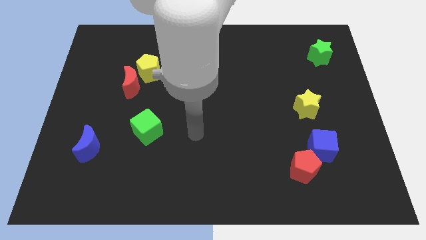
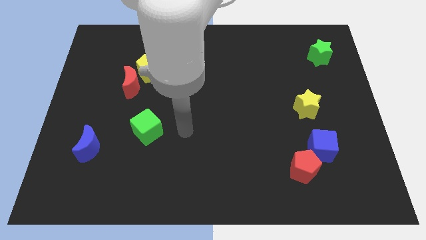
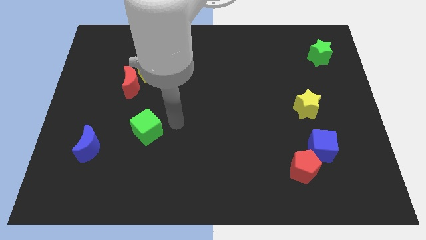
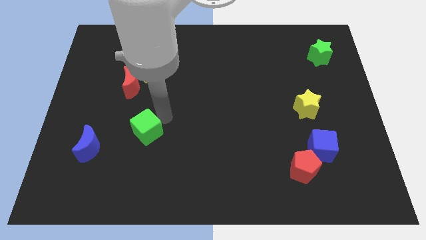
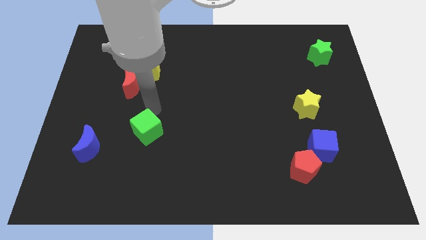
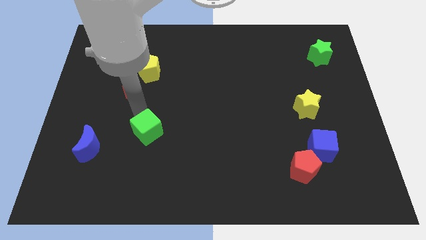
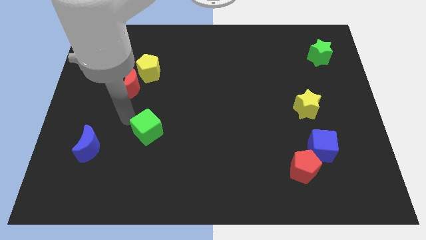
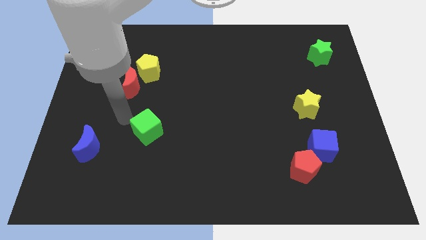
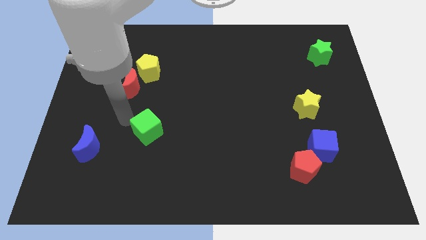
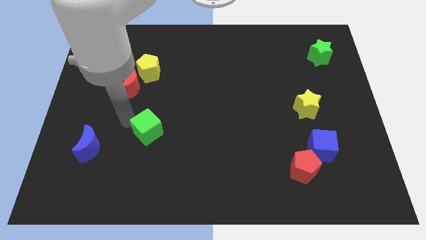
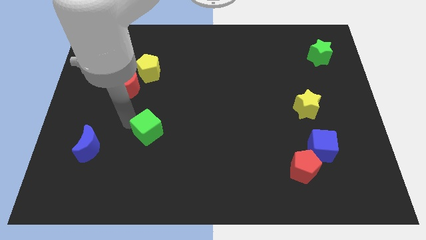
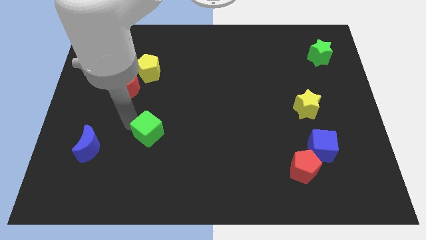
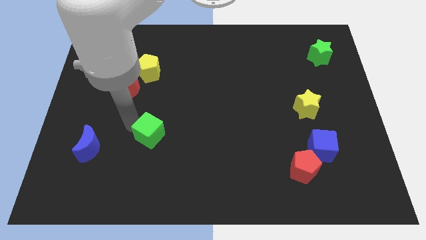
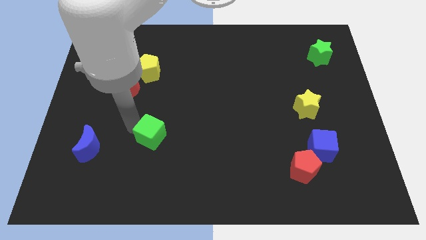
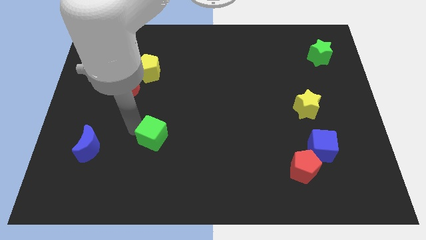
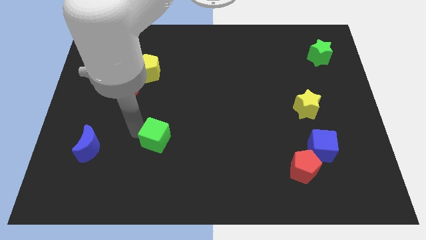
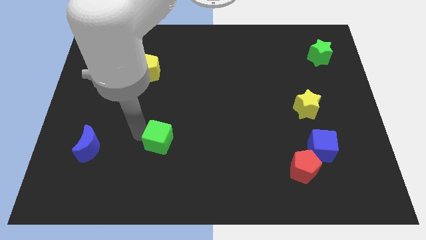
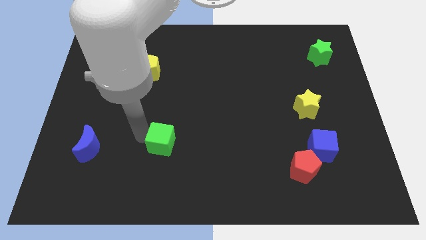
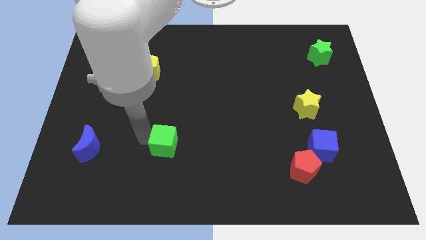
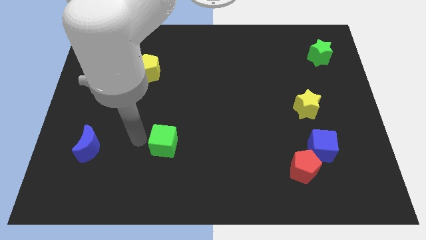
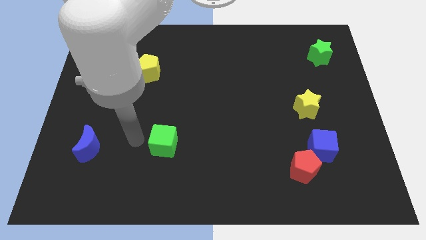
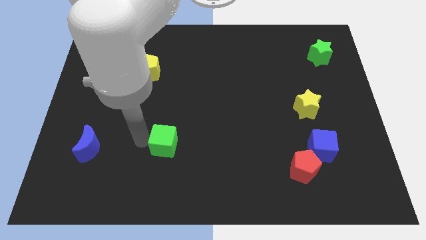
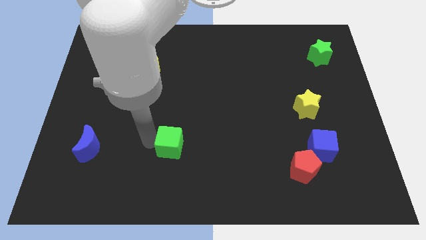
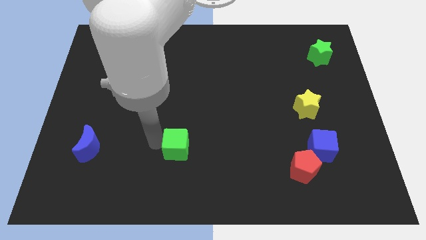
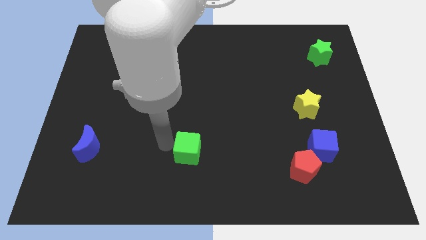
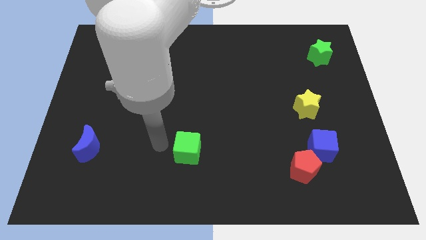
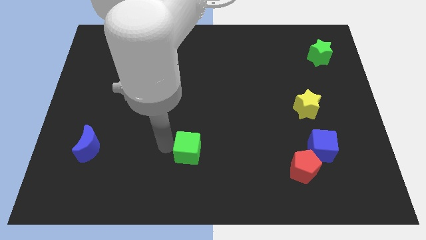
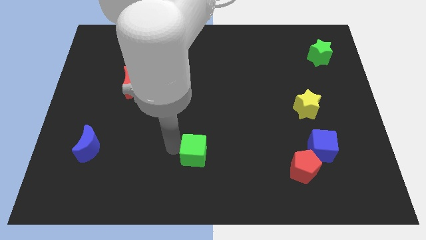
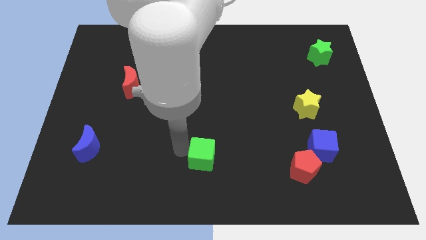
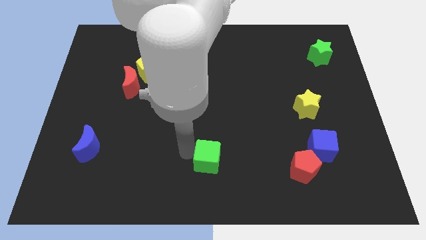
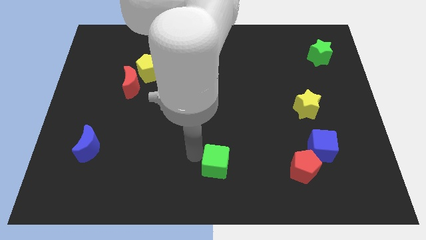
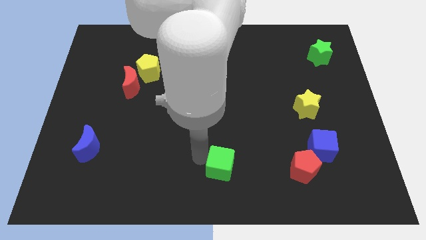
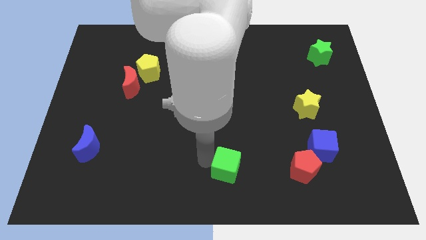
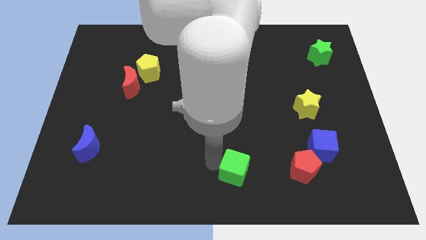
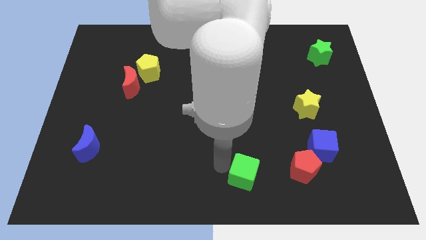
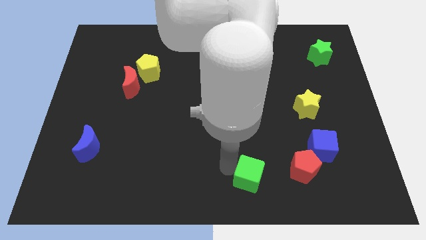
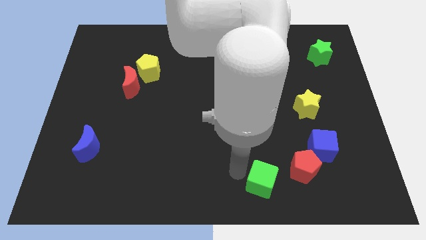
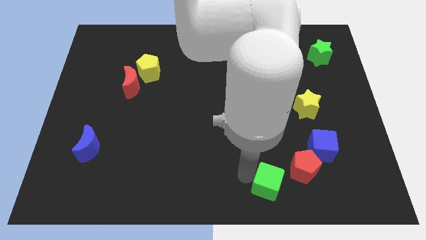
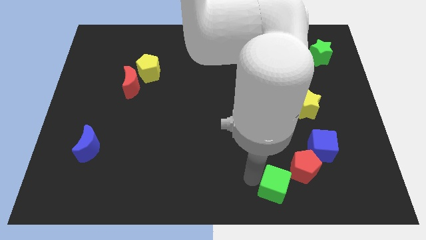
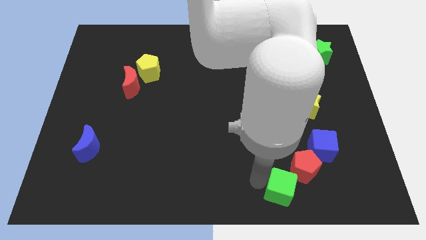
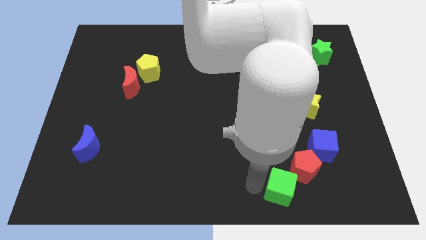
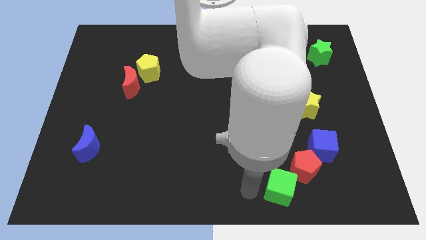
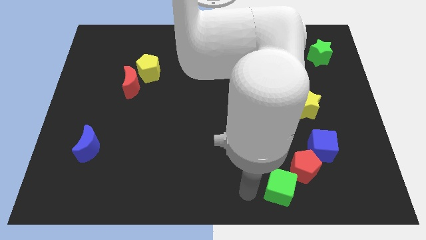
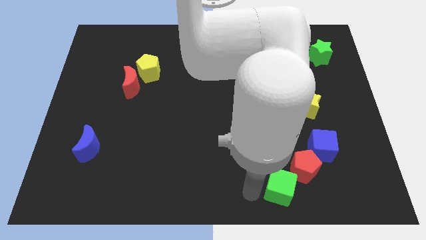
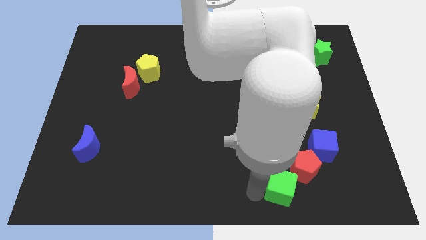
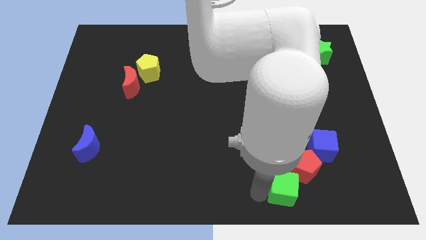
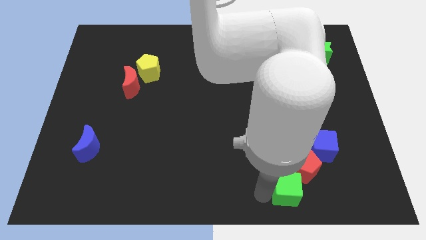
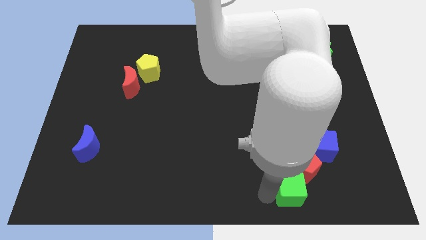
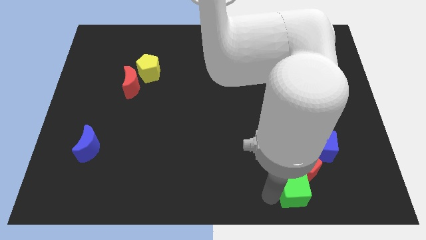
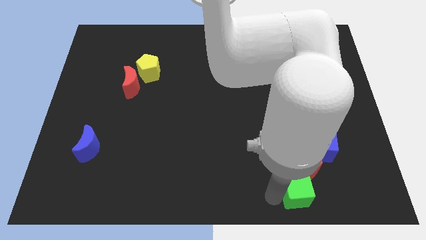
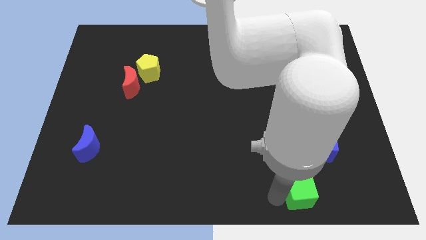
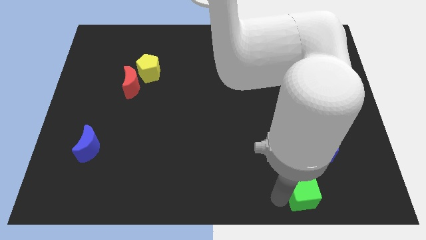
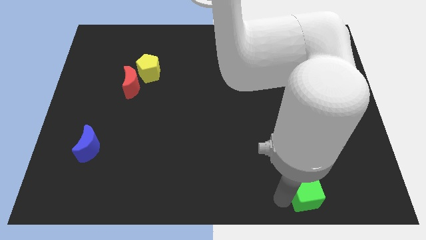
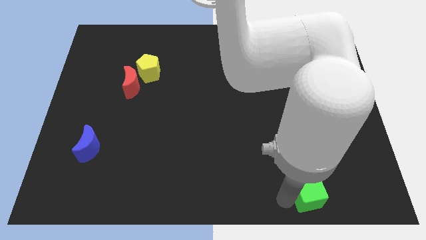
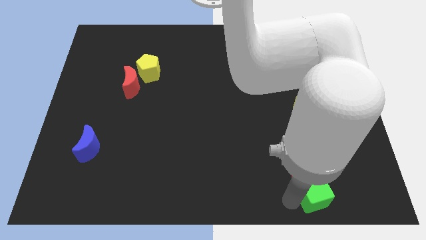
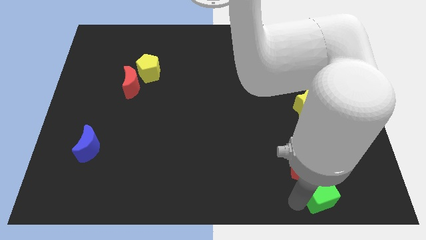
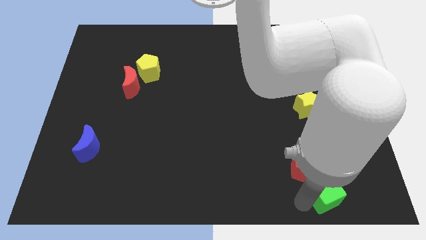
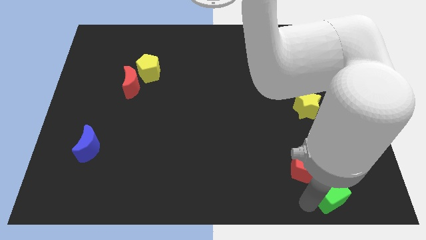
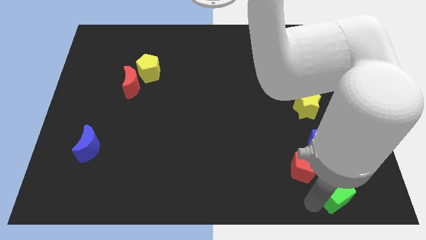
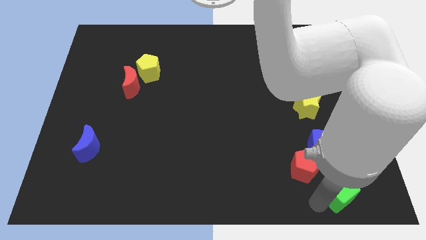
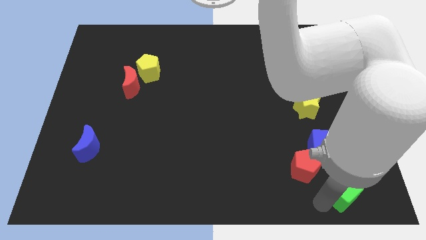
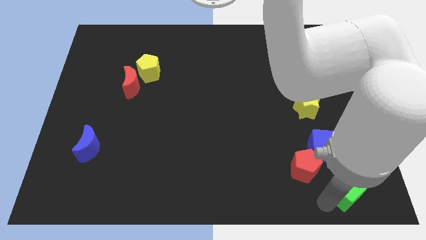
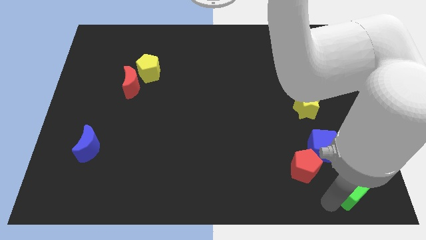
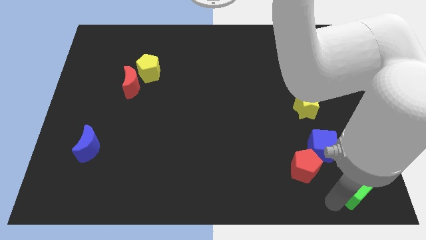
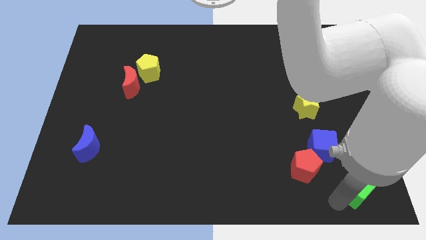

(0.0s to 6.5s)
put the green cube to the right side of the red pentagon
